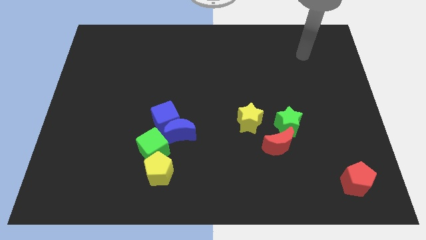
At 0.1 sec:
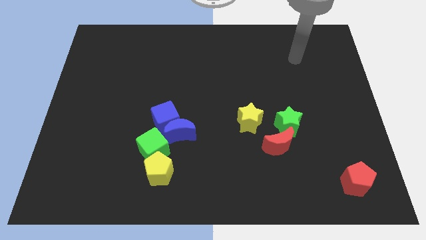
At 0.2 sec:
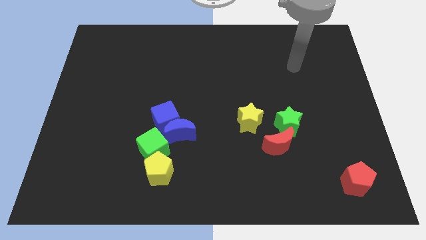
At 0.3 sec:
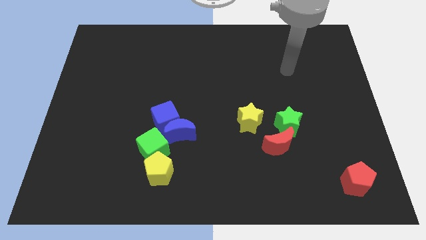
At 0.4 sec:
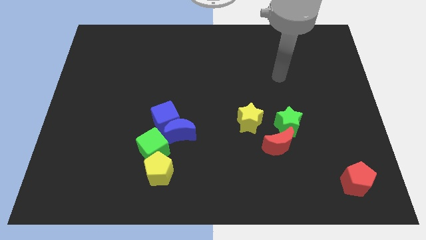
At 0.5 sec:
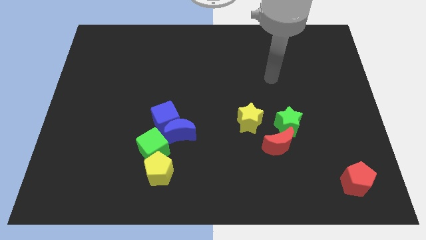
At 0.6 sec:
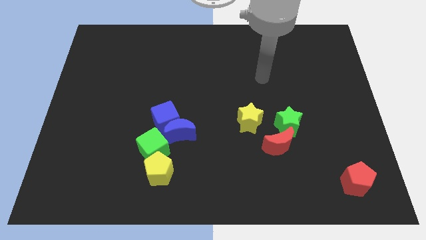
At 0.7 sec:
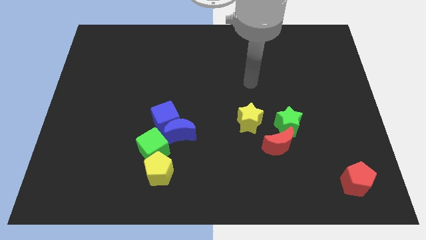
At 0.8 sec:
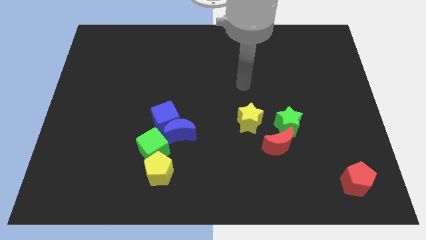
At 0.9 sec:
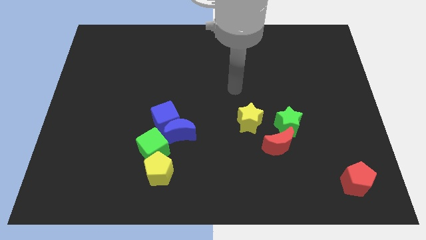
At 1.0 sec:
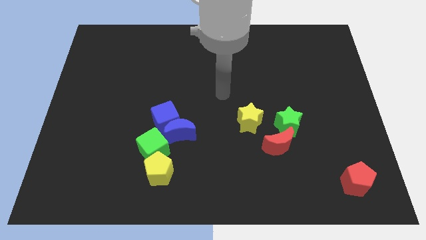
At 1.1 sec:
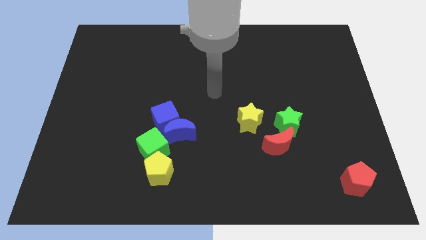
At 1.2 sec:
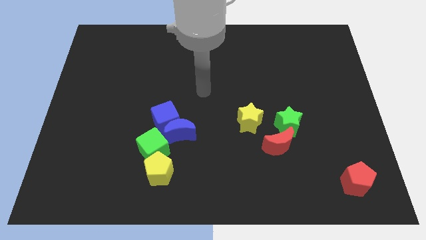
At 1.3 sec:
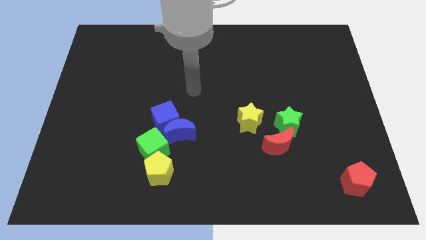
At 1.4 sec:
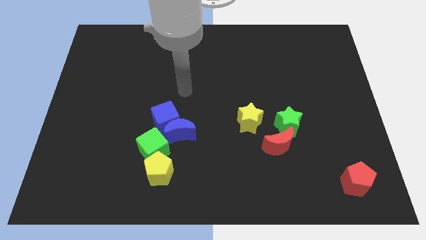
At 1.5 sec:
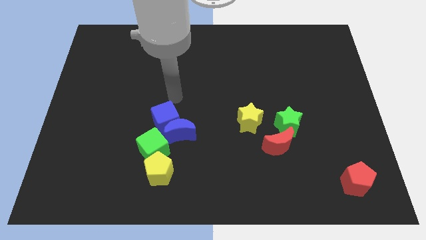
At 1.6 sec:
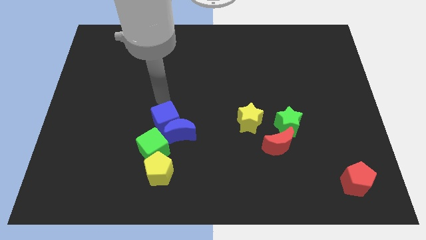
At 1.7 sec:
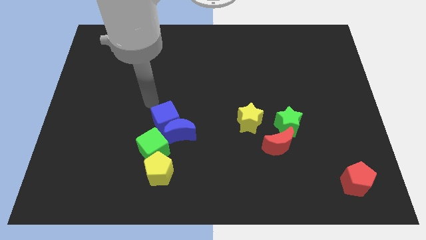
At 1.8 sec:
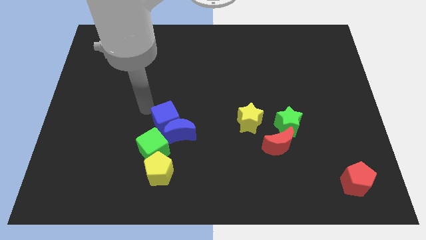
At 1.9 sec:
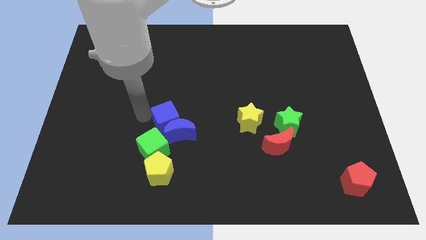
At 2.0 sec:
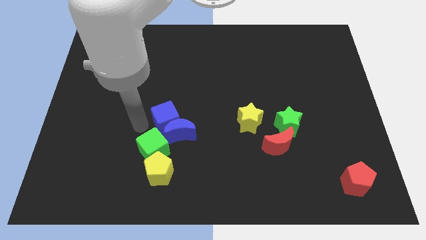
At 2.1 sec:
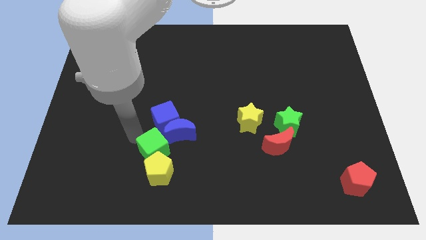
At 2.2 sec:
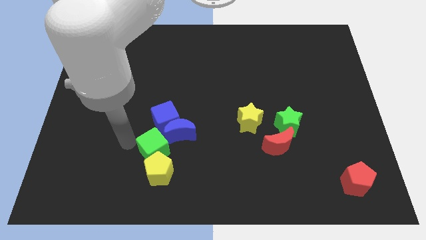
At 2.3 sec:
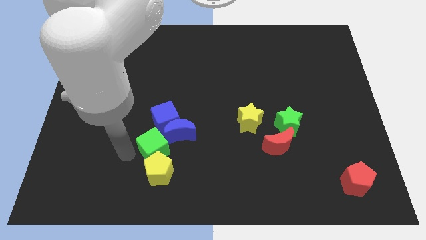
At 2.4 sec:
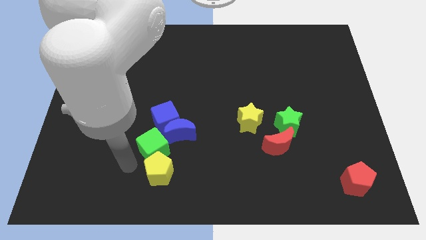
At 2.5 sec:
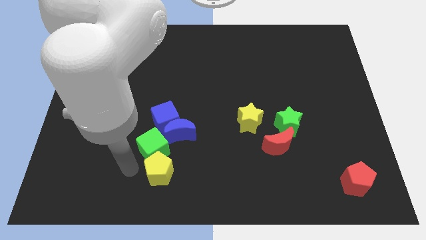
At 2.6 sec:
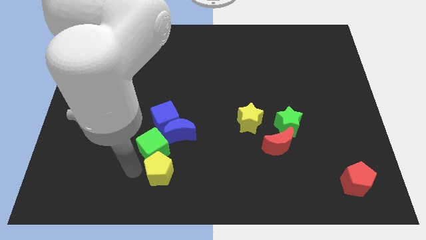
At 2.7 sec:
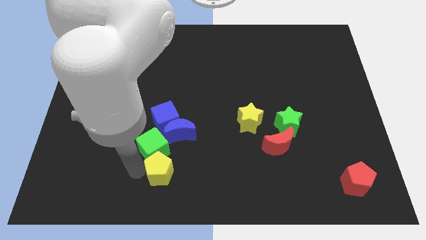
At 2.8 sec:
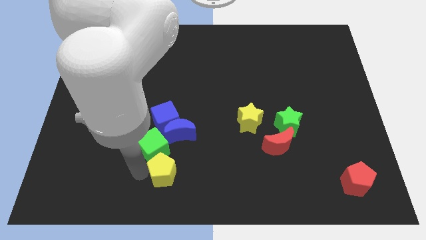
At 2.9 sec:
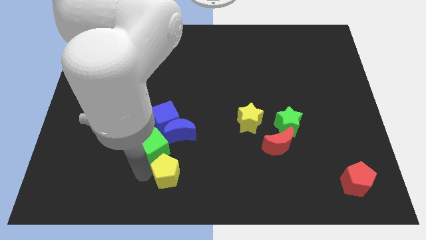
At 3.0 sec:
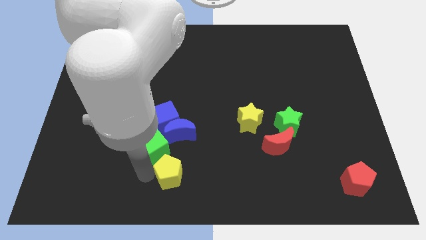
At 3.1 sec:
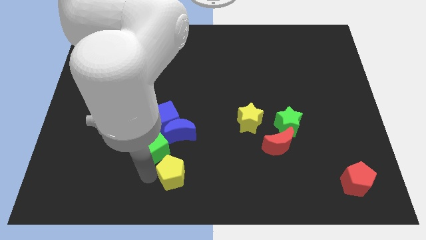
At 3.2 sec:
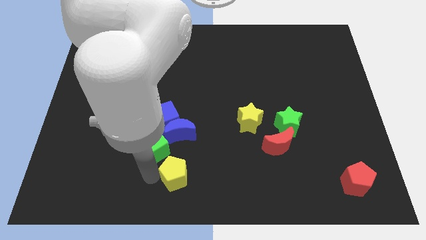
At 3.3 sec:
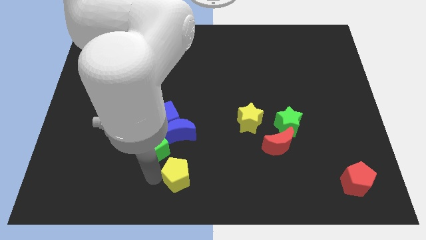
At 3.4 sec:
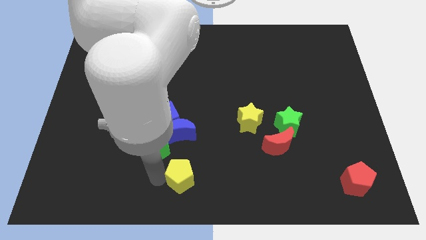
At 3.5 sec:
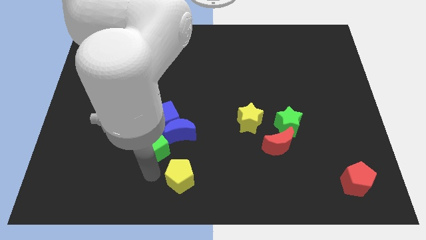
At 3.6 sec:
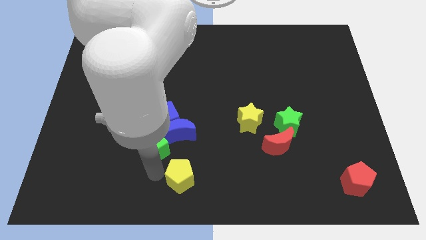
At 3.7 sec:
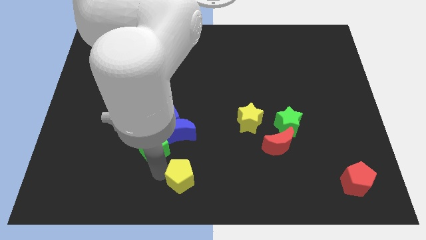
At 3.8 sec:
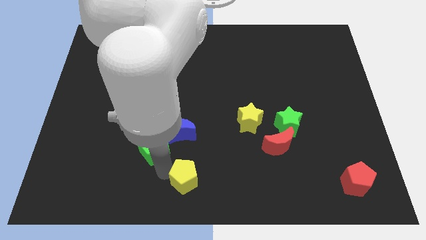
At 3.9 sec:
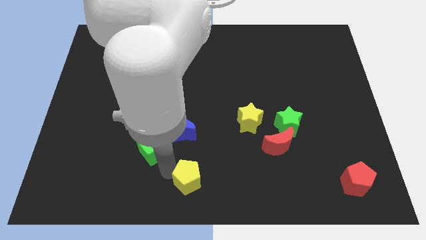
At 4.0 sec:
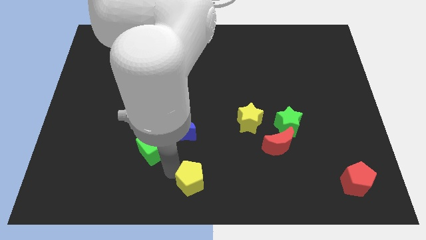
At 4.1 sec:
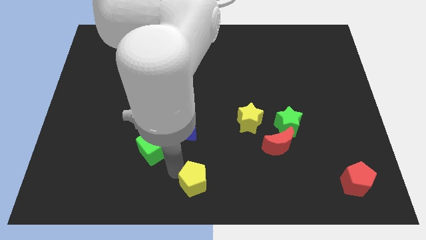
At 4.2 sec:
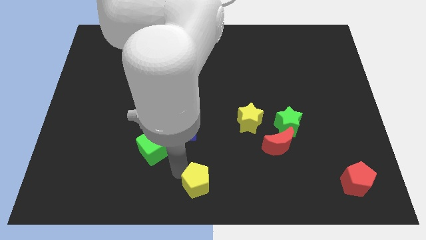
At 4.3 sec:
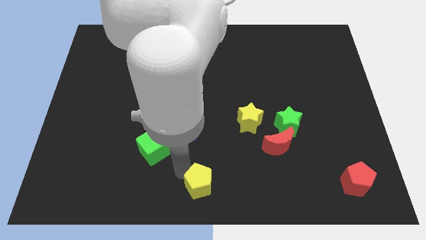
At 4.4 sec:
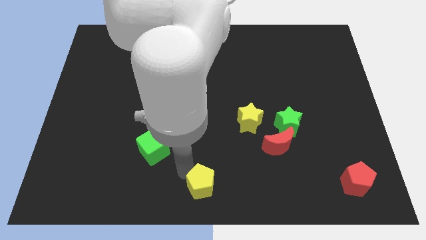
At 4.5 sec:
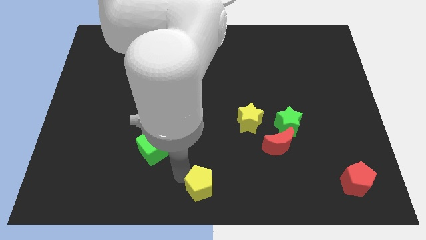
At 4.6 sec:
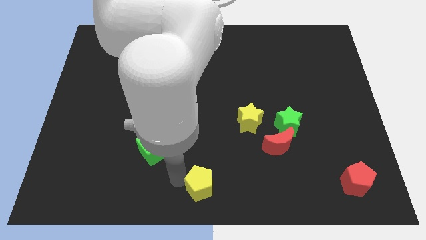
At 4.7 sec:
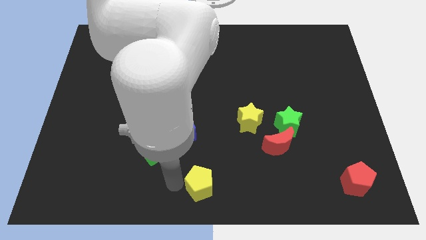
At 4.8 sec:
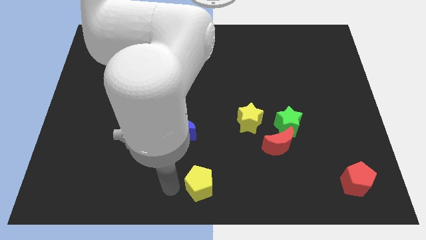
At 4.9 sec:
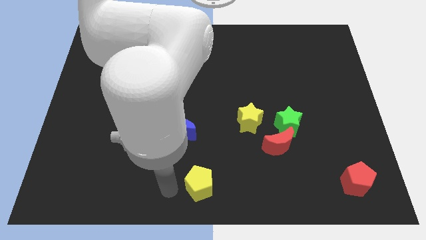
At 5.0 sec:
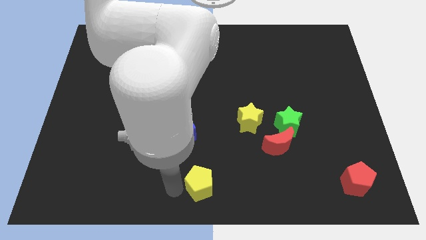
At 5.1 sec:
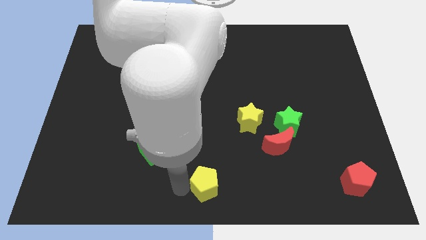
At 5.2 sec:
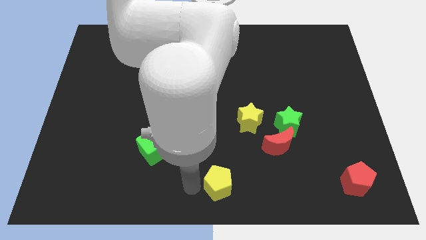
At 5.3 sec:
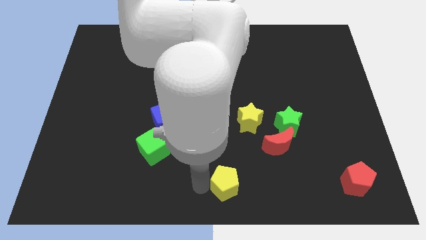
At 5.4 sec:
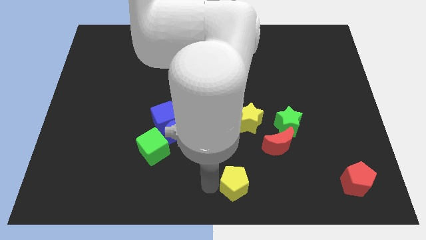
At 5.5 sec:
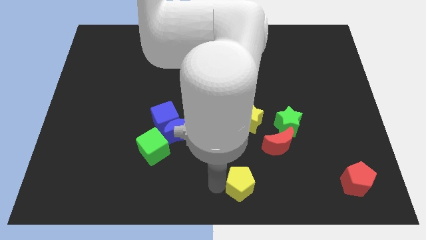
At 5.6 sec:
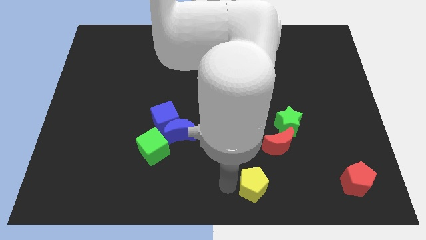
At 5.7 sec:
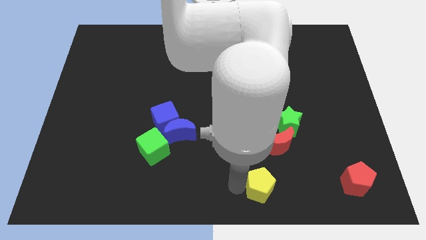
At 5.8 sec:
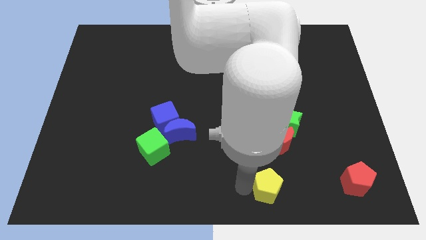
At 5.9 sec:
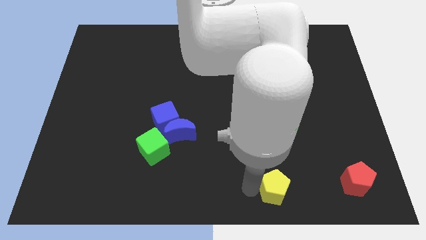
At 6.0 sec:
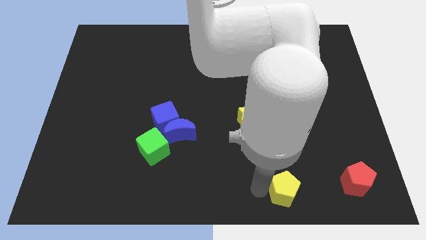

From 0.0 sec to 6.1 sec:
push the yellow pentagon left of the red pentagon

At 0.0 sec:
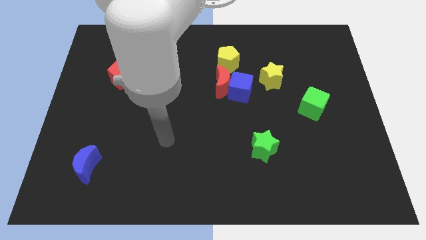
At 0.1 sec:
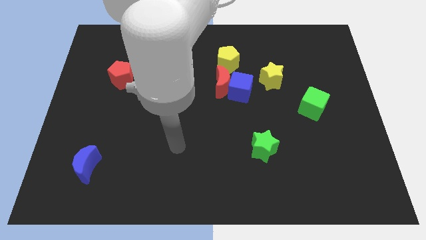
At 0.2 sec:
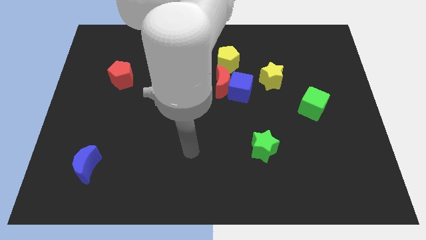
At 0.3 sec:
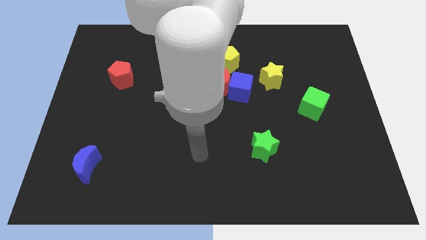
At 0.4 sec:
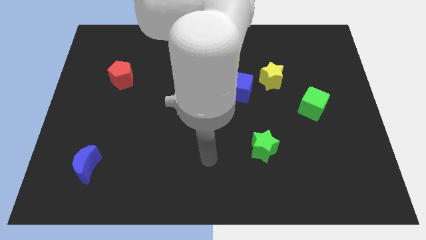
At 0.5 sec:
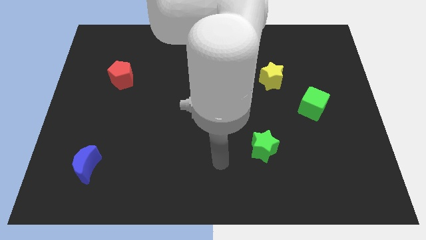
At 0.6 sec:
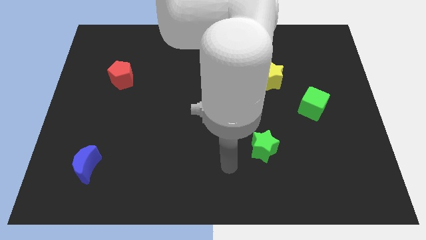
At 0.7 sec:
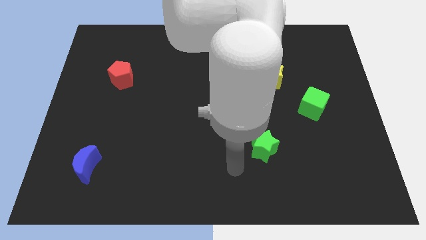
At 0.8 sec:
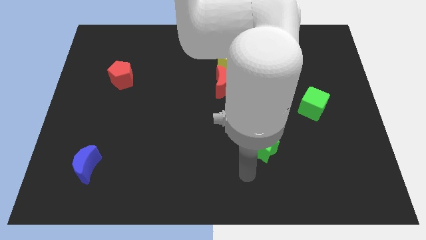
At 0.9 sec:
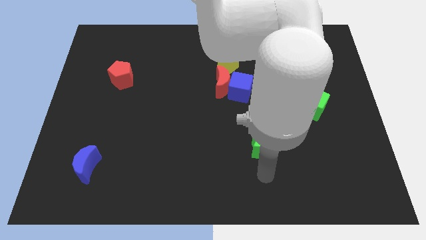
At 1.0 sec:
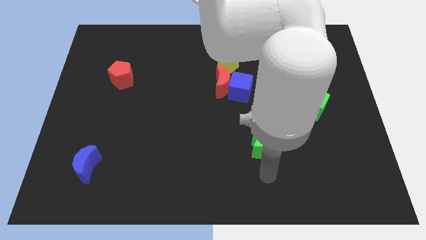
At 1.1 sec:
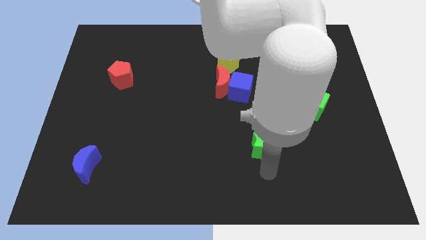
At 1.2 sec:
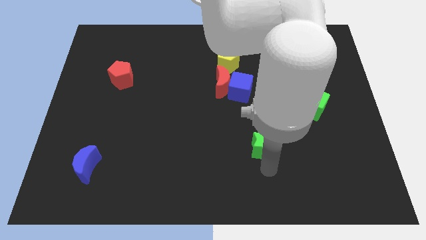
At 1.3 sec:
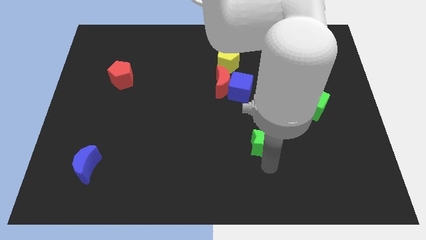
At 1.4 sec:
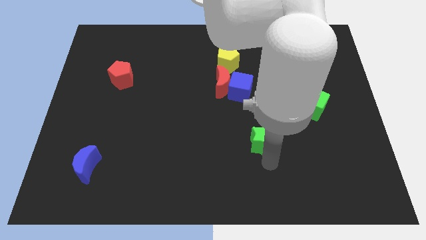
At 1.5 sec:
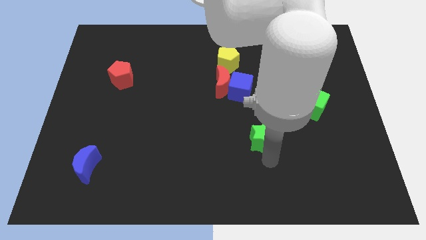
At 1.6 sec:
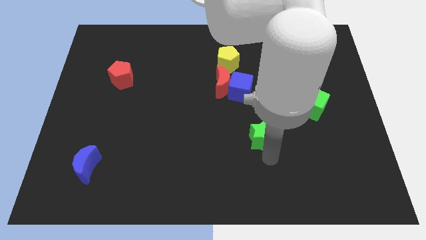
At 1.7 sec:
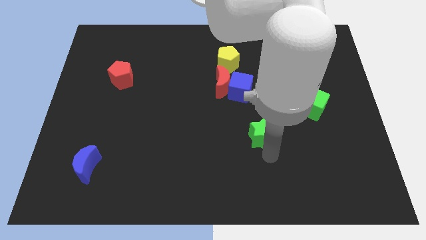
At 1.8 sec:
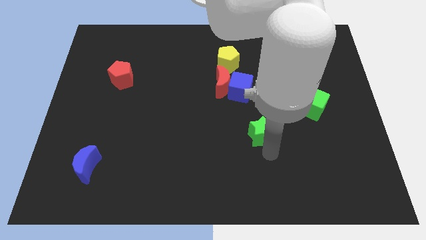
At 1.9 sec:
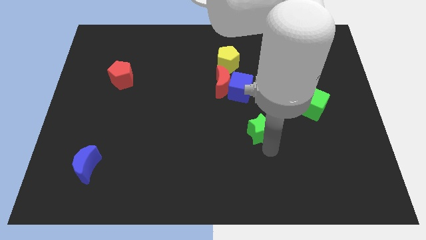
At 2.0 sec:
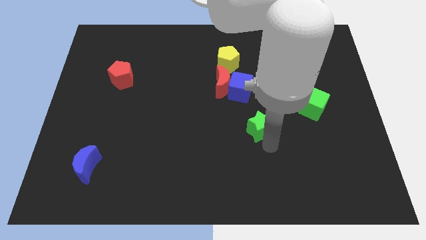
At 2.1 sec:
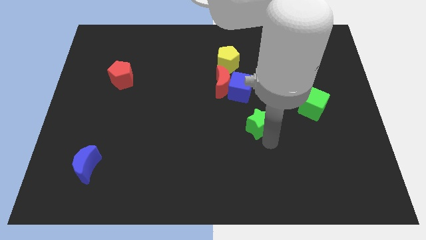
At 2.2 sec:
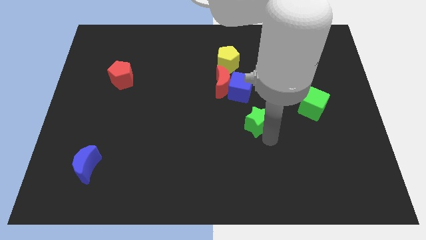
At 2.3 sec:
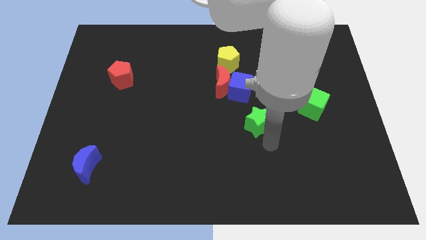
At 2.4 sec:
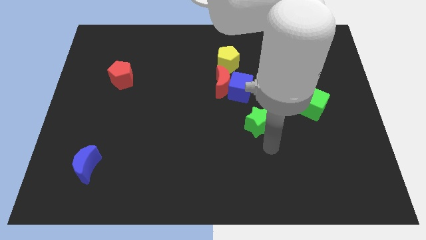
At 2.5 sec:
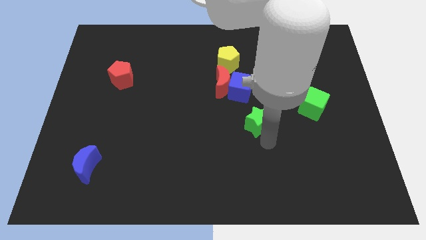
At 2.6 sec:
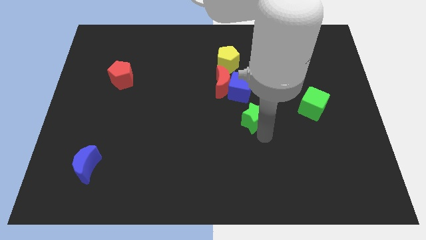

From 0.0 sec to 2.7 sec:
move the green star diagonally down and to the right of the red moon
